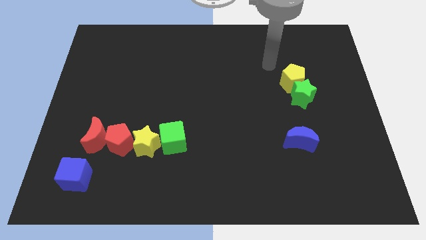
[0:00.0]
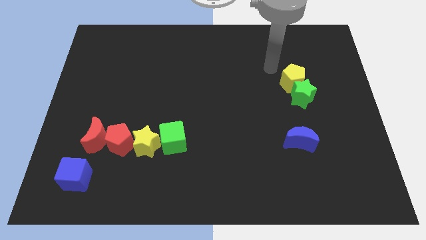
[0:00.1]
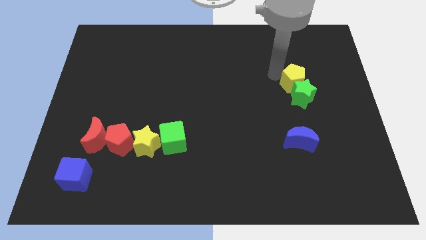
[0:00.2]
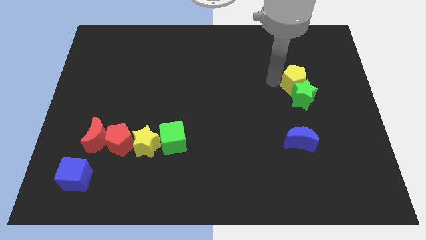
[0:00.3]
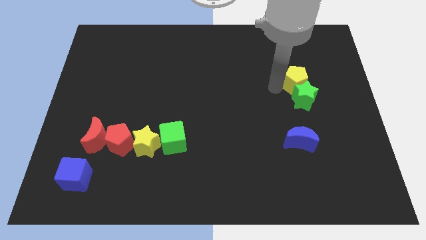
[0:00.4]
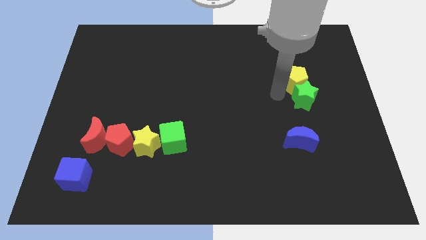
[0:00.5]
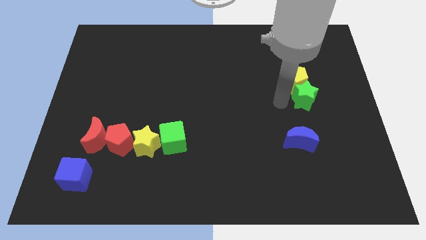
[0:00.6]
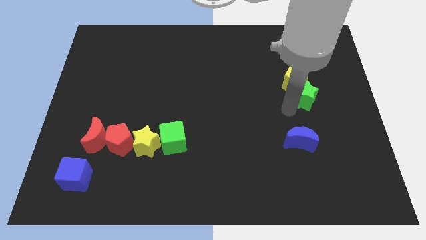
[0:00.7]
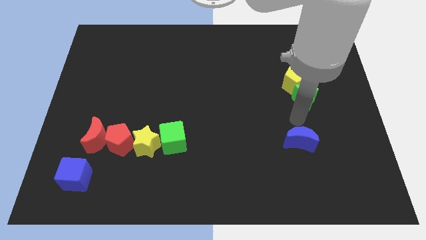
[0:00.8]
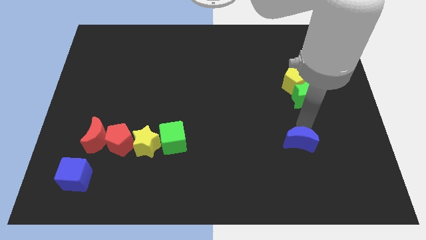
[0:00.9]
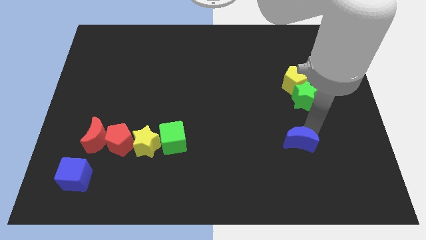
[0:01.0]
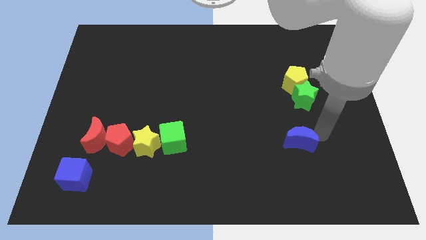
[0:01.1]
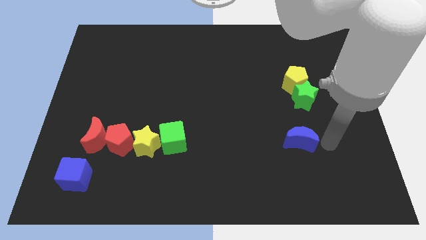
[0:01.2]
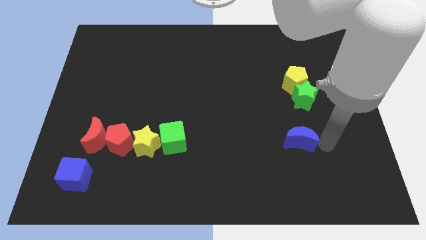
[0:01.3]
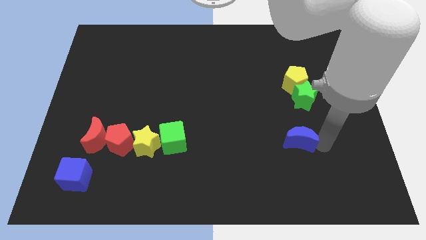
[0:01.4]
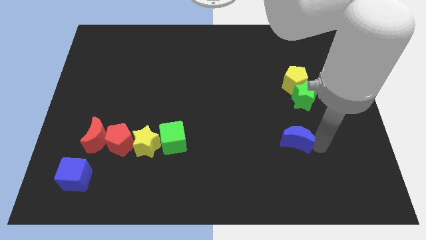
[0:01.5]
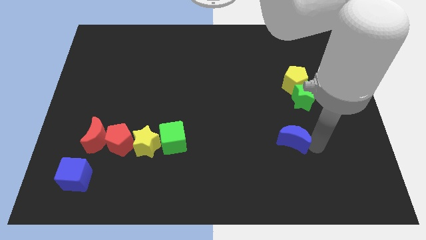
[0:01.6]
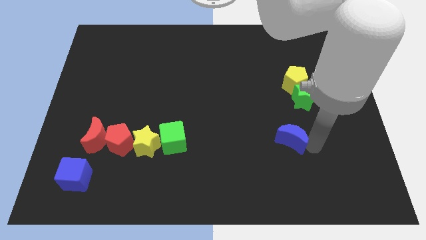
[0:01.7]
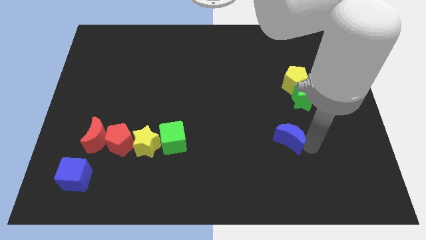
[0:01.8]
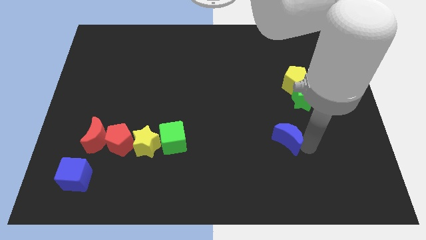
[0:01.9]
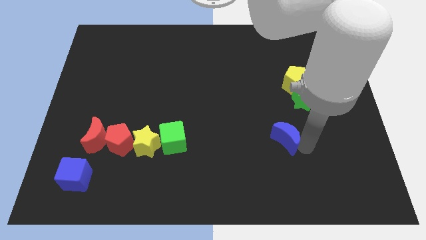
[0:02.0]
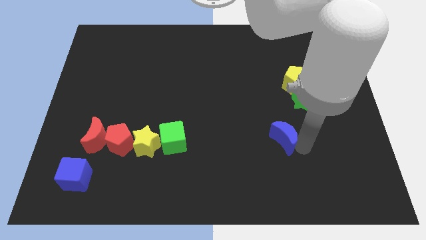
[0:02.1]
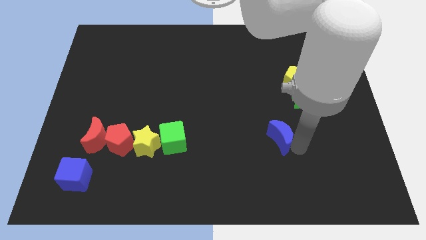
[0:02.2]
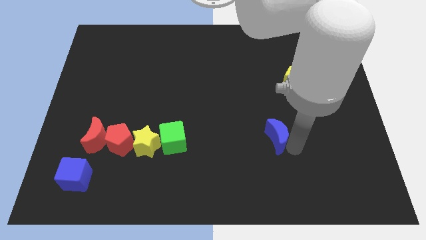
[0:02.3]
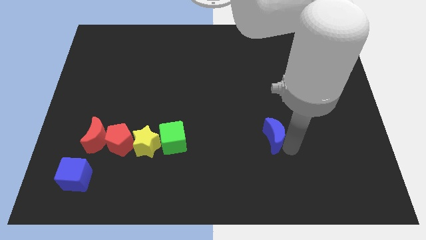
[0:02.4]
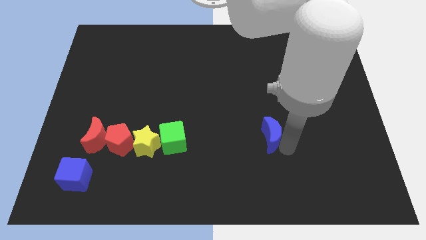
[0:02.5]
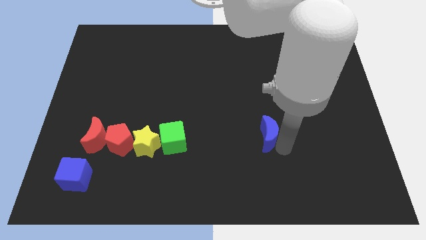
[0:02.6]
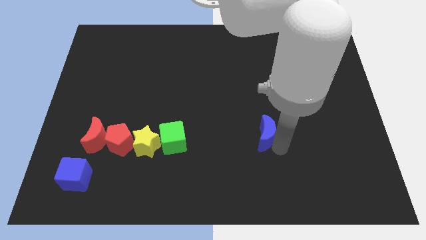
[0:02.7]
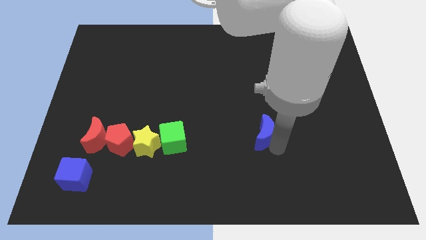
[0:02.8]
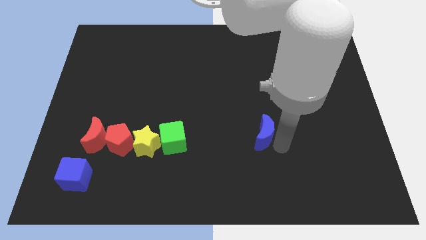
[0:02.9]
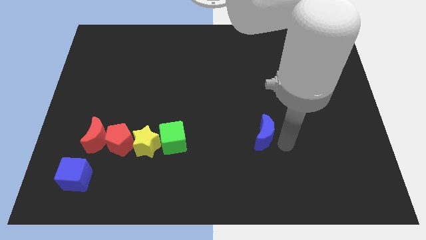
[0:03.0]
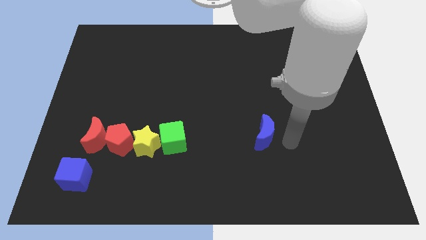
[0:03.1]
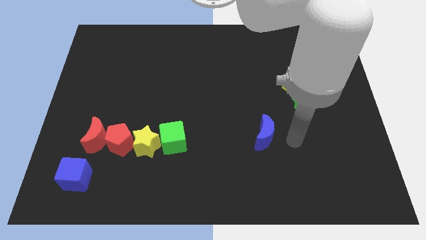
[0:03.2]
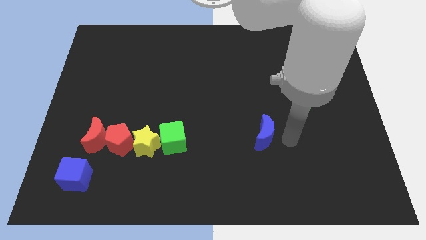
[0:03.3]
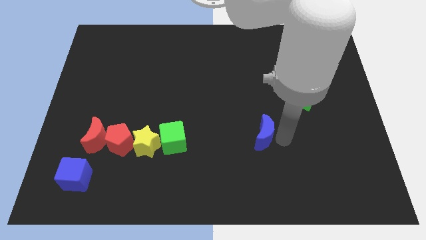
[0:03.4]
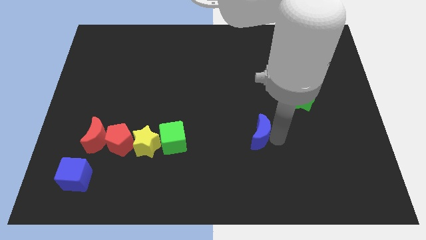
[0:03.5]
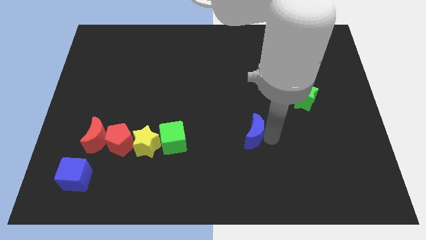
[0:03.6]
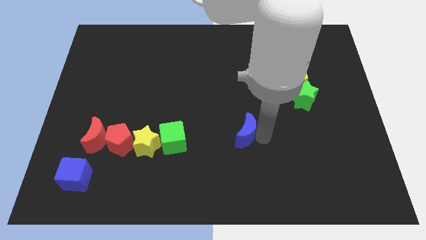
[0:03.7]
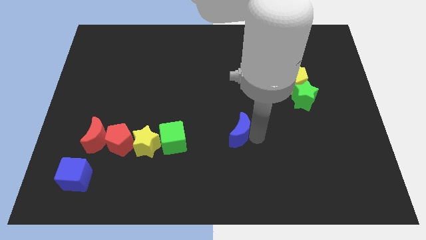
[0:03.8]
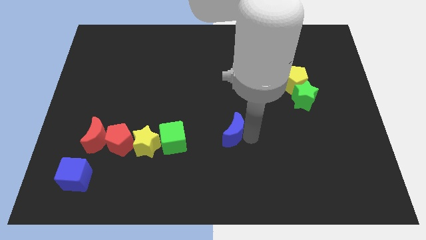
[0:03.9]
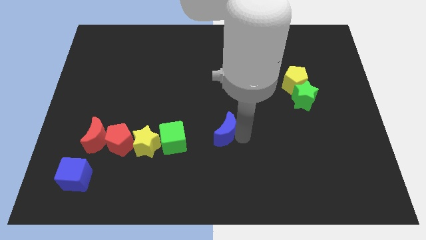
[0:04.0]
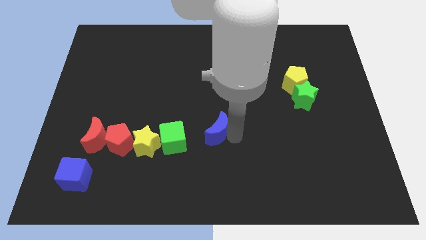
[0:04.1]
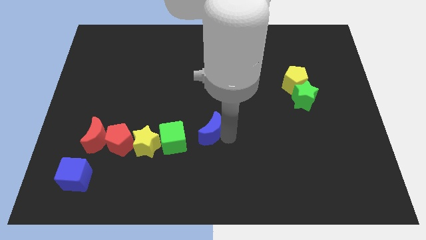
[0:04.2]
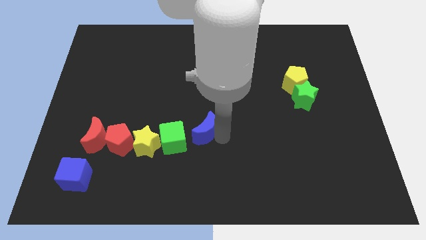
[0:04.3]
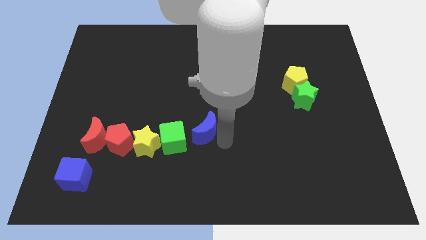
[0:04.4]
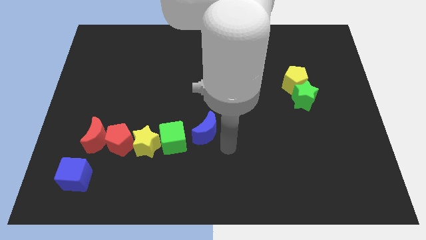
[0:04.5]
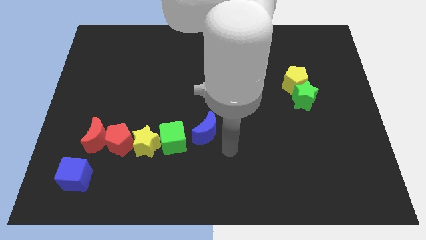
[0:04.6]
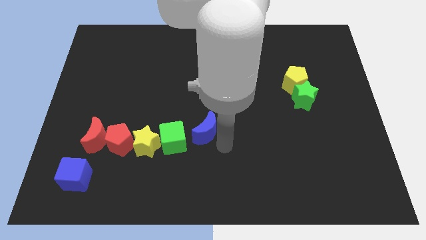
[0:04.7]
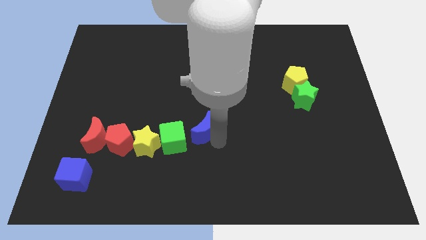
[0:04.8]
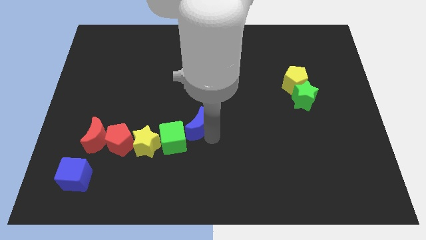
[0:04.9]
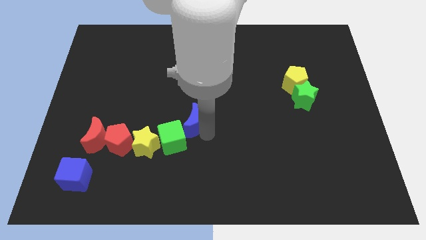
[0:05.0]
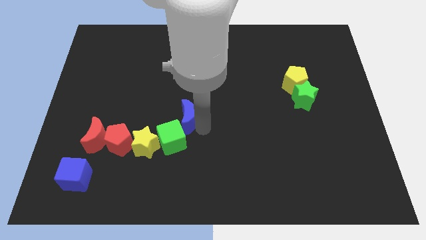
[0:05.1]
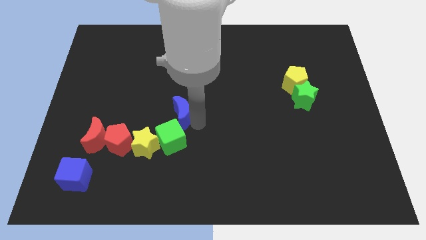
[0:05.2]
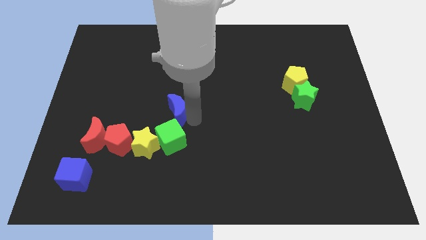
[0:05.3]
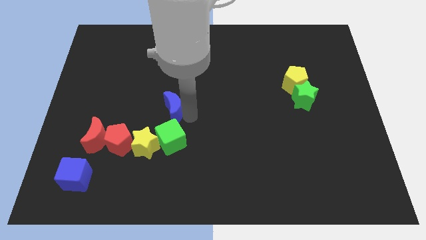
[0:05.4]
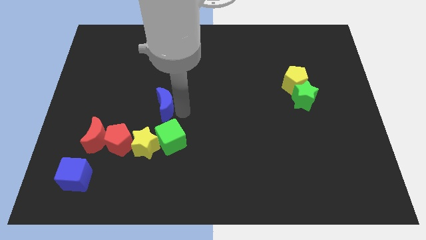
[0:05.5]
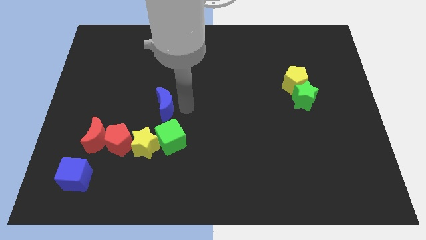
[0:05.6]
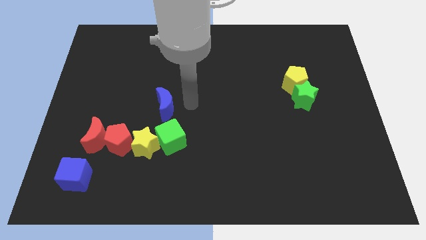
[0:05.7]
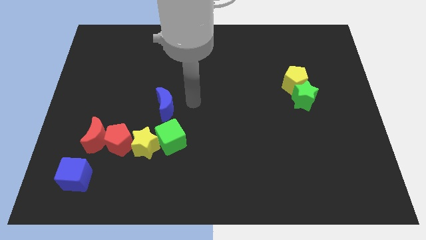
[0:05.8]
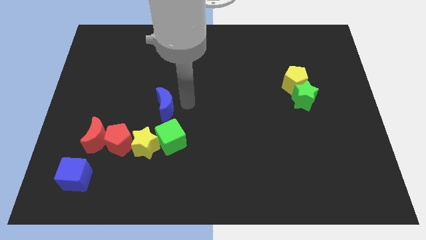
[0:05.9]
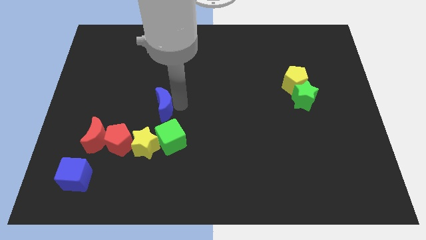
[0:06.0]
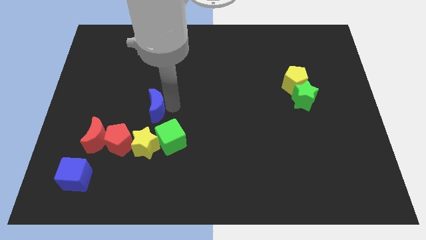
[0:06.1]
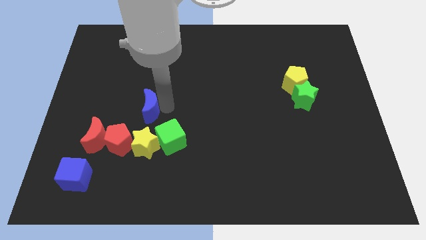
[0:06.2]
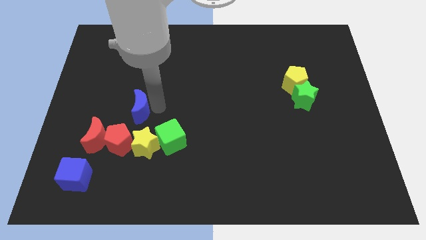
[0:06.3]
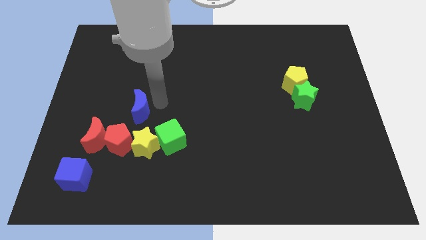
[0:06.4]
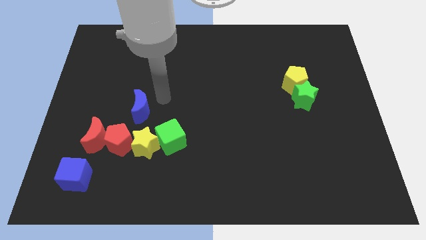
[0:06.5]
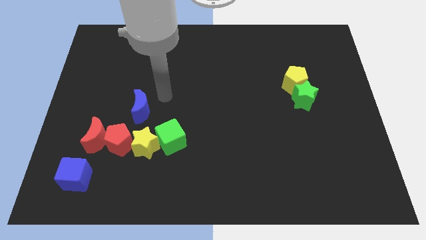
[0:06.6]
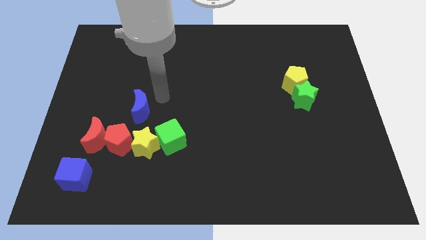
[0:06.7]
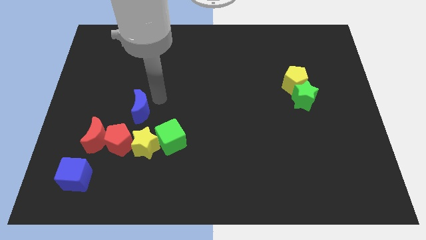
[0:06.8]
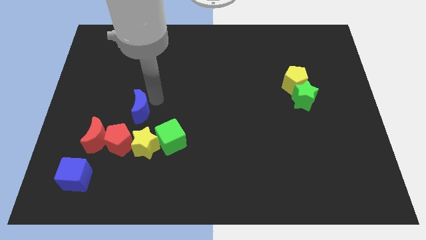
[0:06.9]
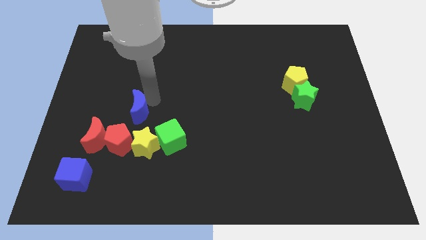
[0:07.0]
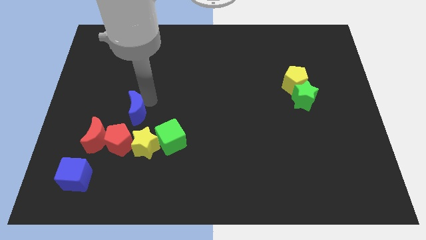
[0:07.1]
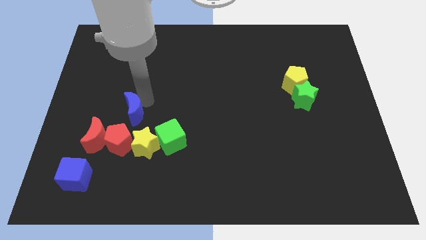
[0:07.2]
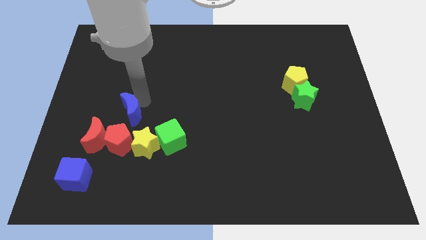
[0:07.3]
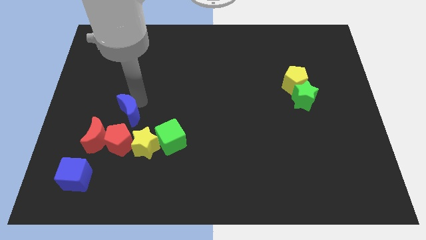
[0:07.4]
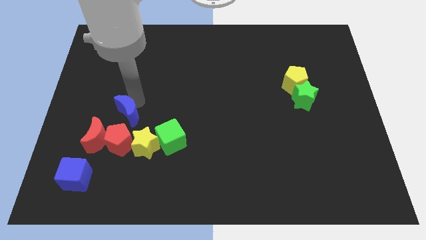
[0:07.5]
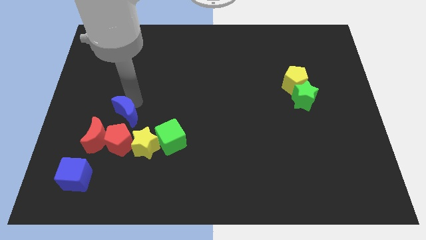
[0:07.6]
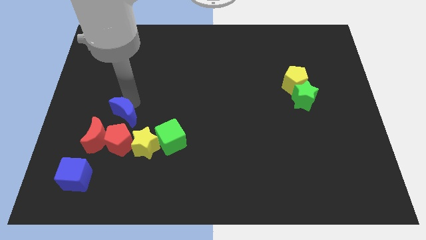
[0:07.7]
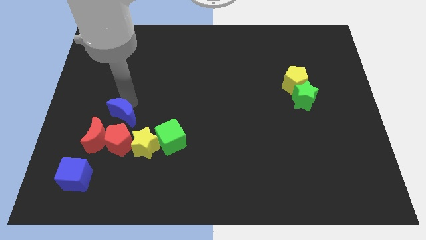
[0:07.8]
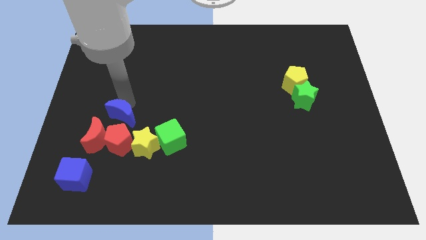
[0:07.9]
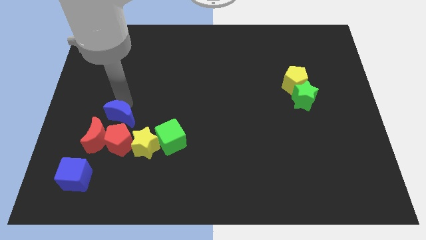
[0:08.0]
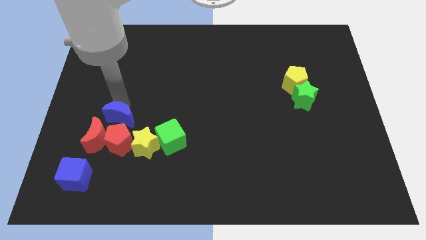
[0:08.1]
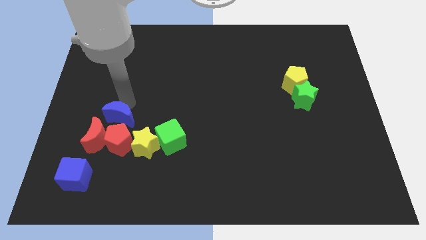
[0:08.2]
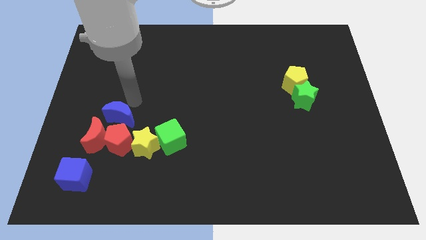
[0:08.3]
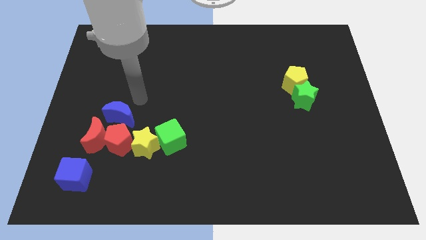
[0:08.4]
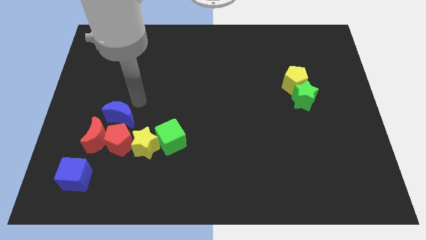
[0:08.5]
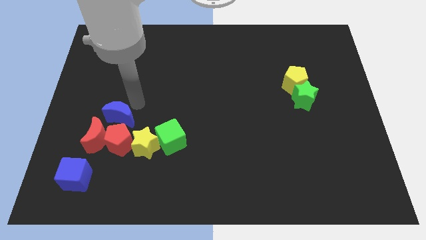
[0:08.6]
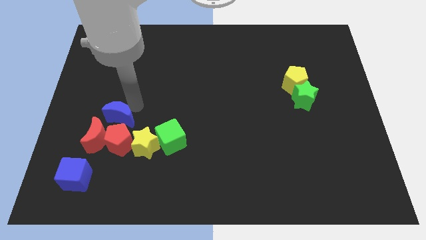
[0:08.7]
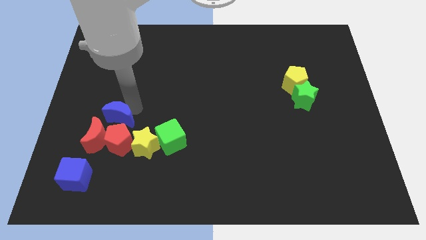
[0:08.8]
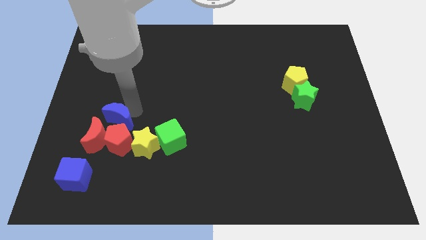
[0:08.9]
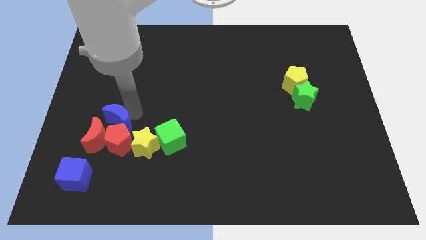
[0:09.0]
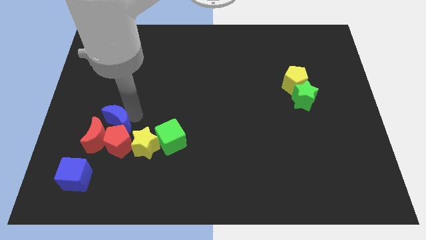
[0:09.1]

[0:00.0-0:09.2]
move the blue moon next to the red moon
